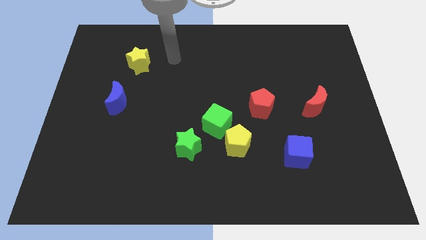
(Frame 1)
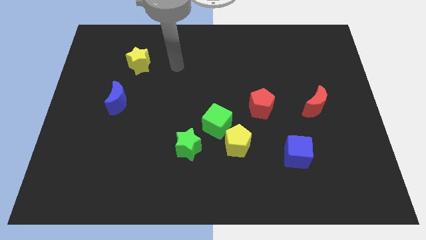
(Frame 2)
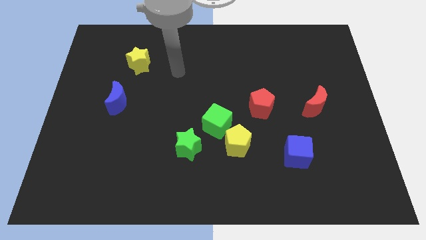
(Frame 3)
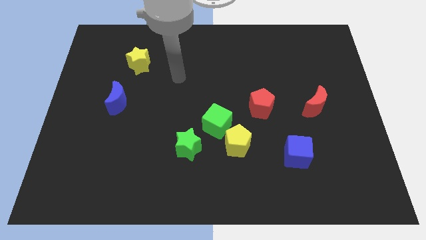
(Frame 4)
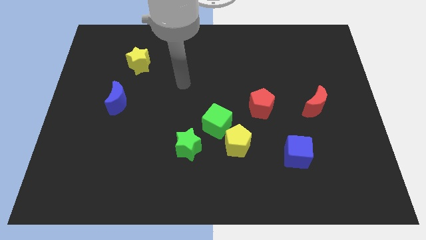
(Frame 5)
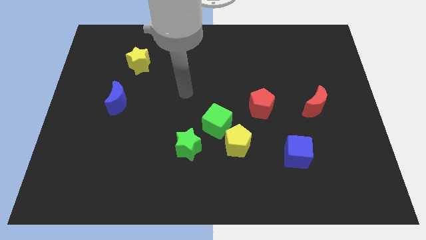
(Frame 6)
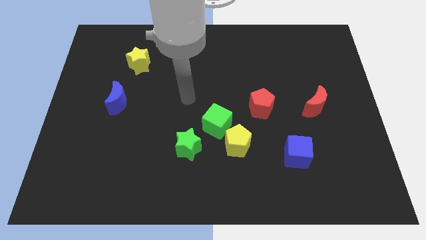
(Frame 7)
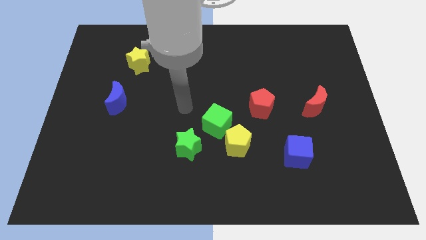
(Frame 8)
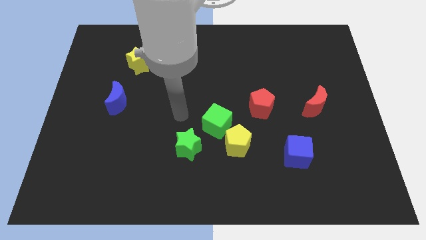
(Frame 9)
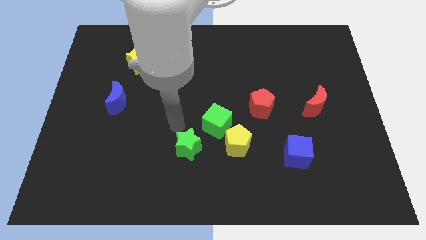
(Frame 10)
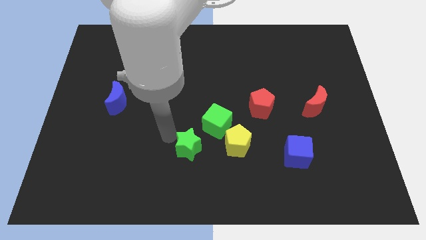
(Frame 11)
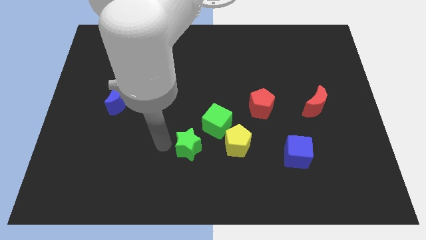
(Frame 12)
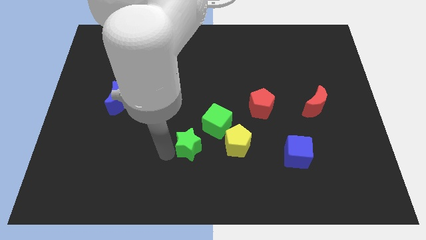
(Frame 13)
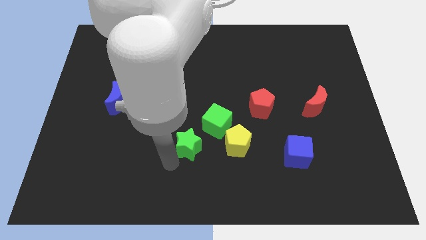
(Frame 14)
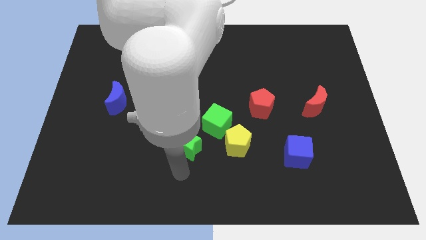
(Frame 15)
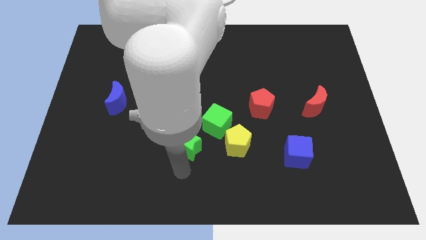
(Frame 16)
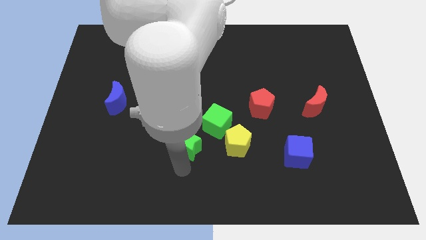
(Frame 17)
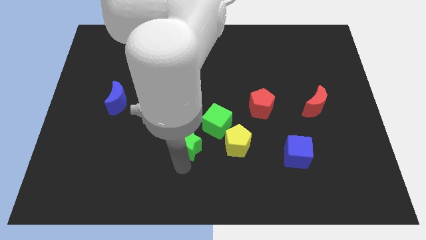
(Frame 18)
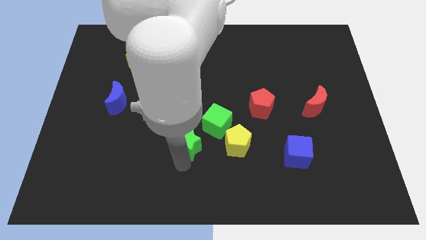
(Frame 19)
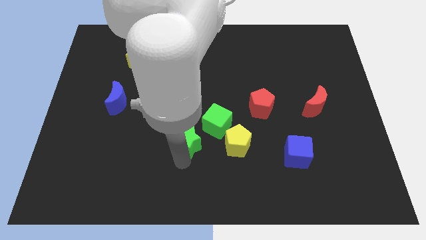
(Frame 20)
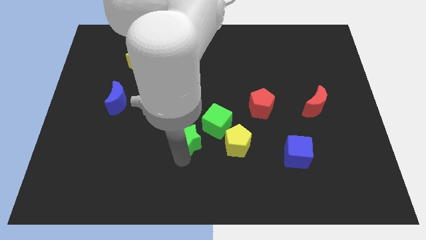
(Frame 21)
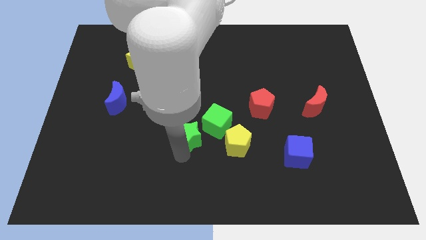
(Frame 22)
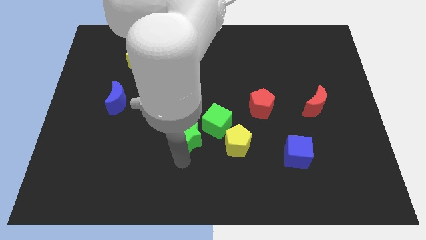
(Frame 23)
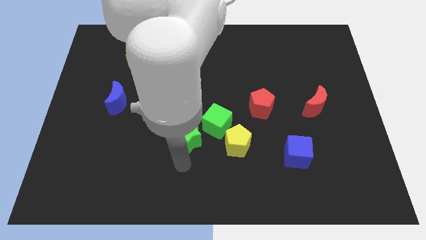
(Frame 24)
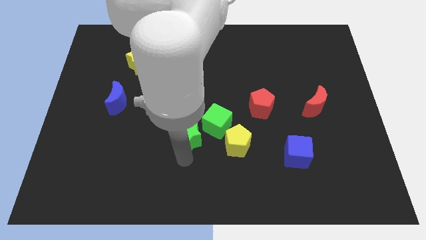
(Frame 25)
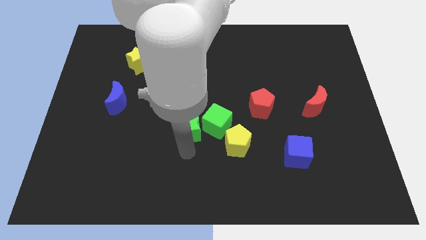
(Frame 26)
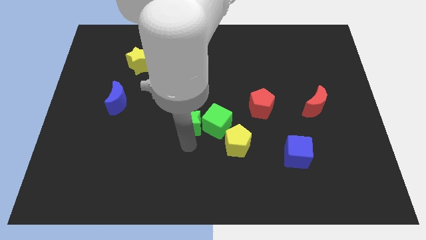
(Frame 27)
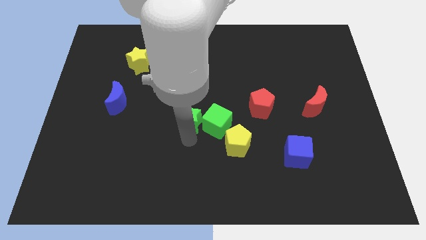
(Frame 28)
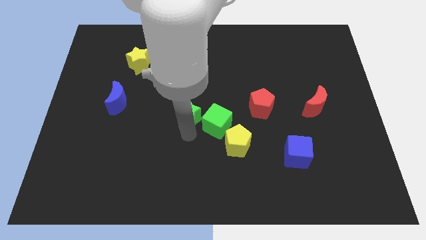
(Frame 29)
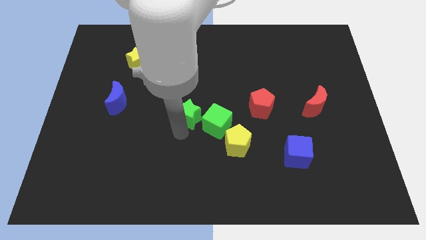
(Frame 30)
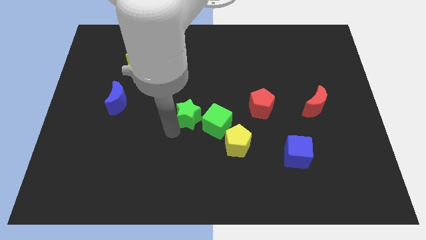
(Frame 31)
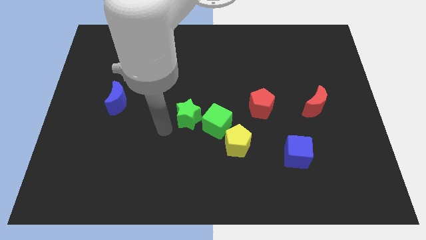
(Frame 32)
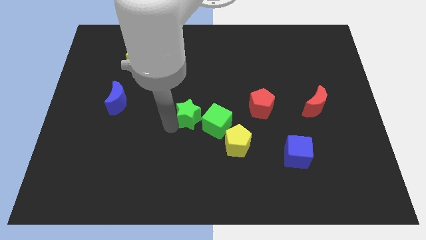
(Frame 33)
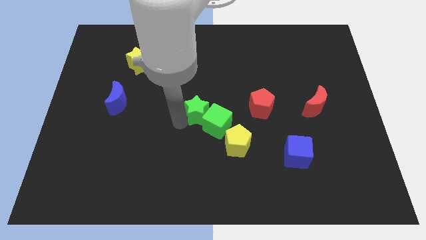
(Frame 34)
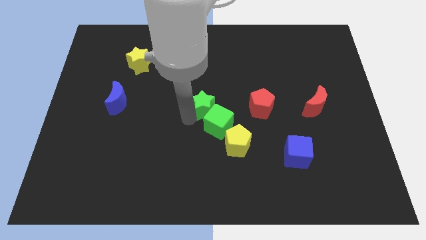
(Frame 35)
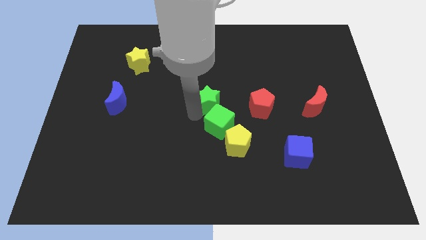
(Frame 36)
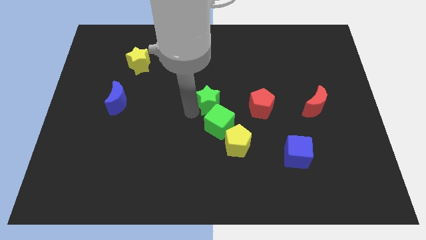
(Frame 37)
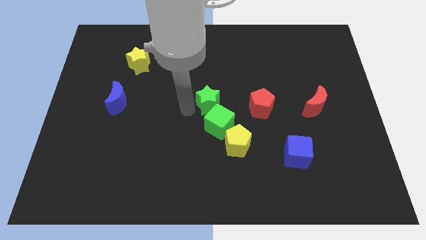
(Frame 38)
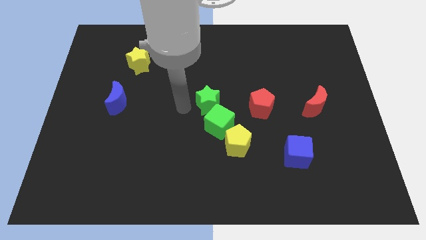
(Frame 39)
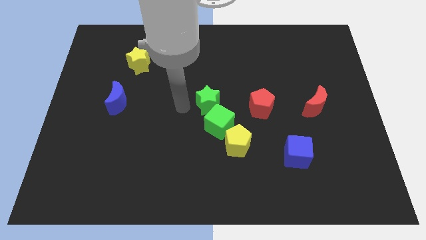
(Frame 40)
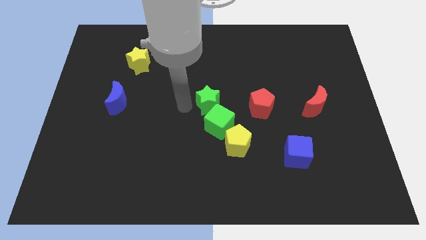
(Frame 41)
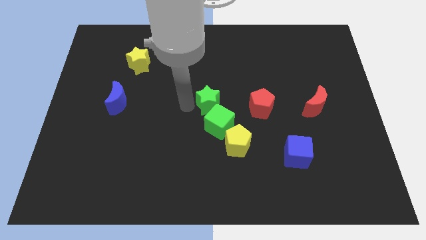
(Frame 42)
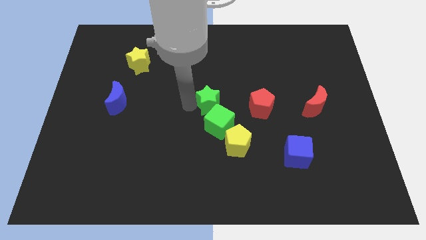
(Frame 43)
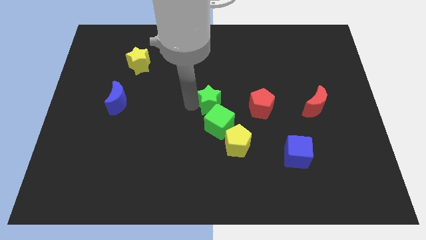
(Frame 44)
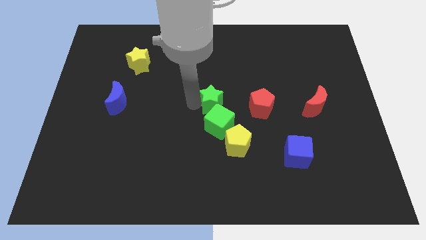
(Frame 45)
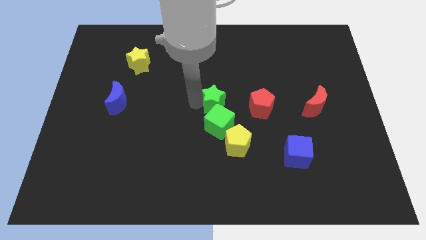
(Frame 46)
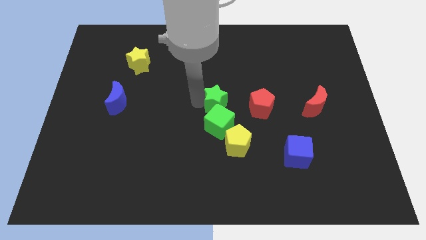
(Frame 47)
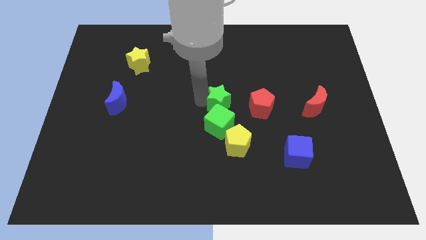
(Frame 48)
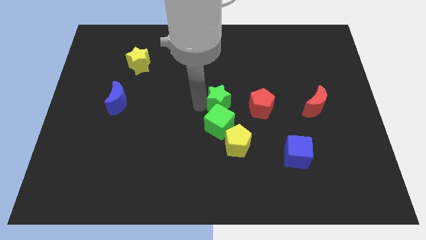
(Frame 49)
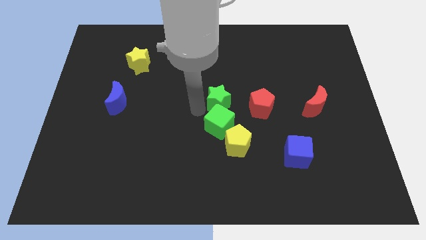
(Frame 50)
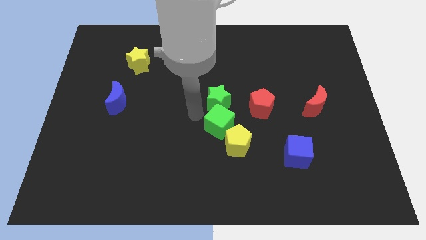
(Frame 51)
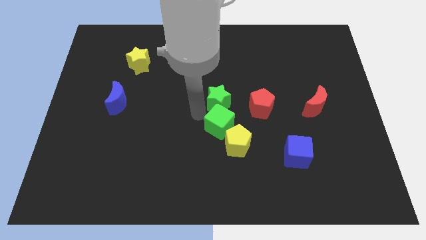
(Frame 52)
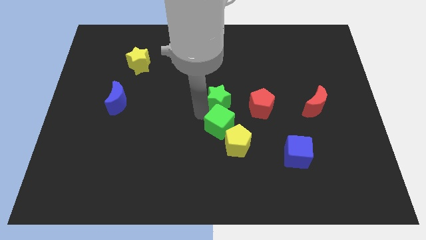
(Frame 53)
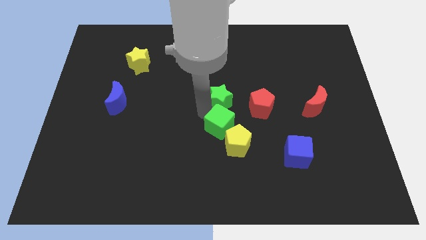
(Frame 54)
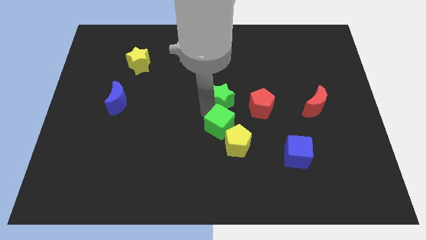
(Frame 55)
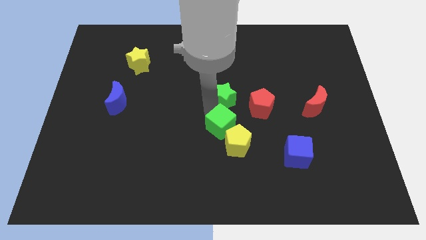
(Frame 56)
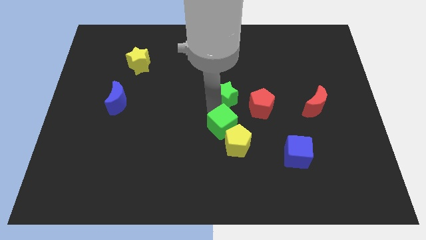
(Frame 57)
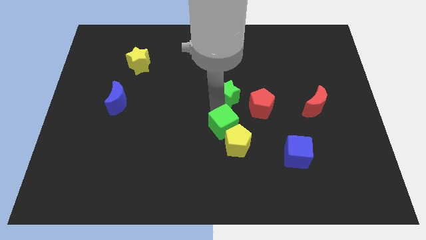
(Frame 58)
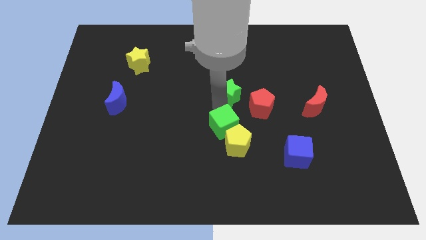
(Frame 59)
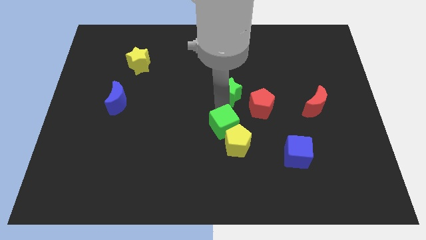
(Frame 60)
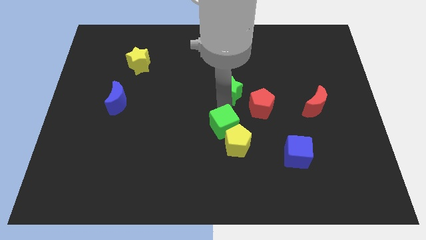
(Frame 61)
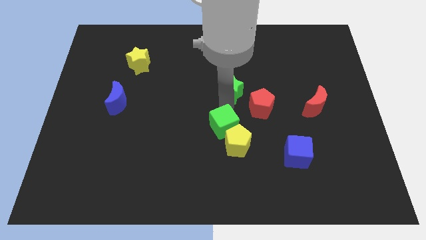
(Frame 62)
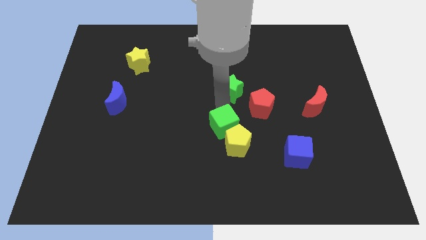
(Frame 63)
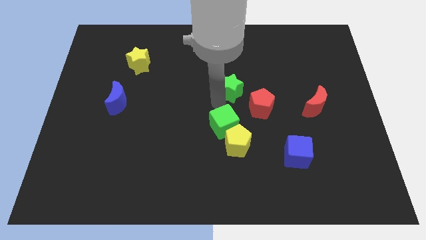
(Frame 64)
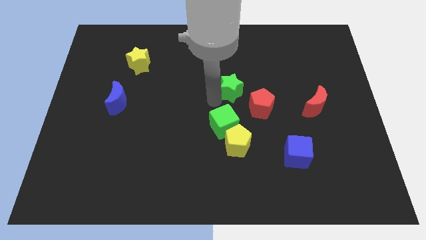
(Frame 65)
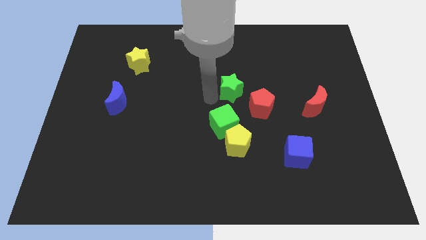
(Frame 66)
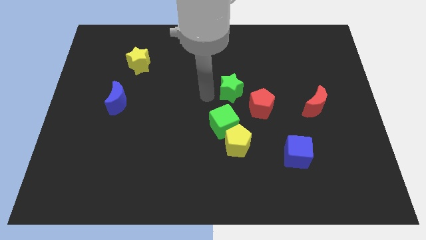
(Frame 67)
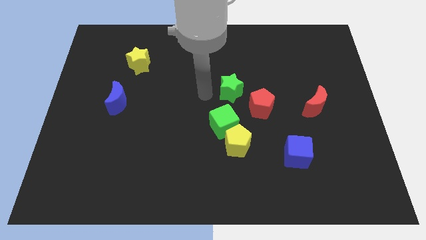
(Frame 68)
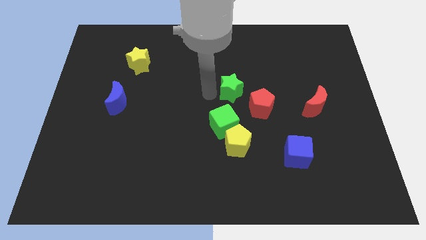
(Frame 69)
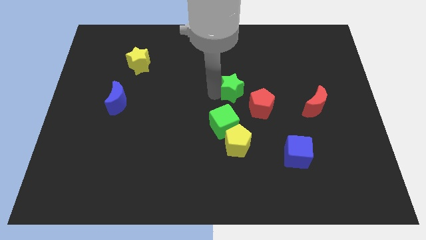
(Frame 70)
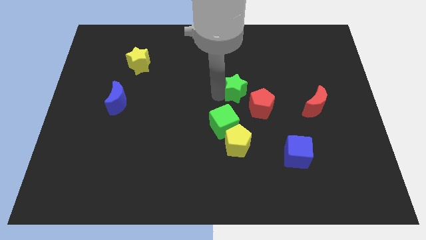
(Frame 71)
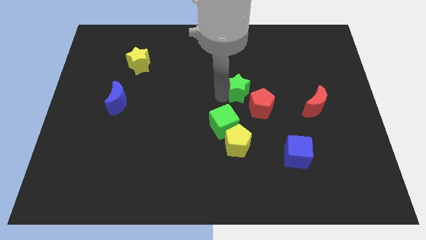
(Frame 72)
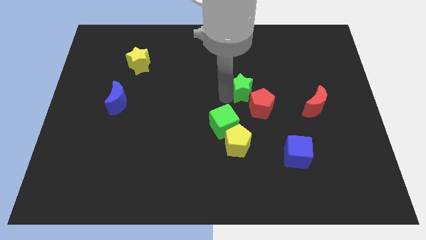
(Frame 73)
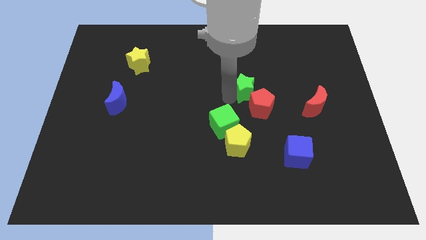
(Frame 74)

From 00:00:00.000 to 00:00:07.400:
move the green star up and then right

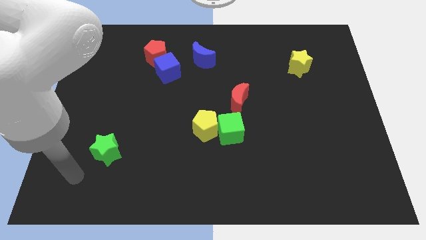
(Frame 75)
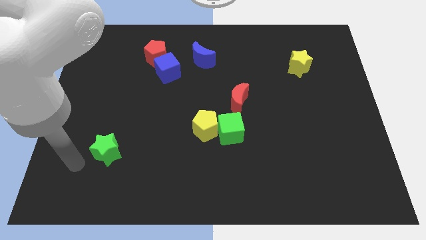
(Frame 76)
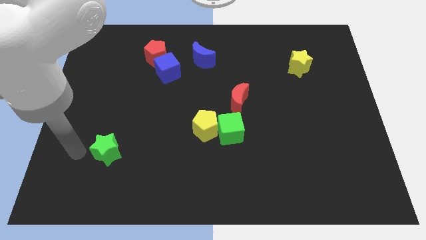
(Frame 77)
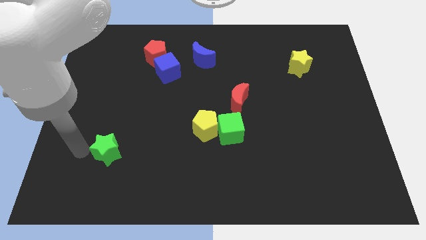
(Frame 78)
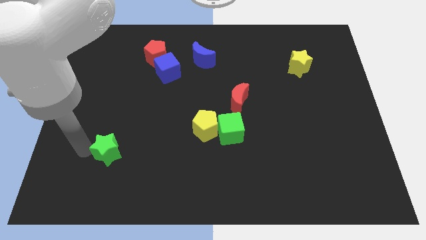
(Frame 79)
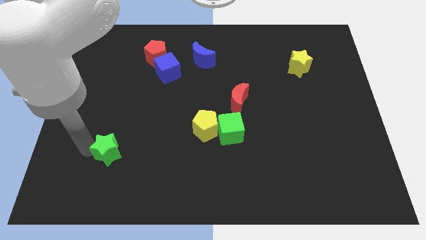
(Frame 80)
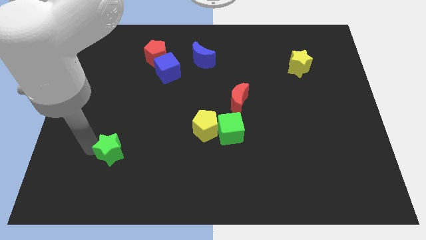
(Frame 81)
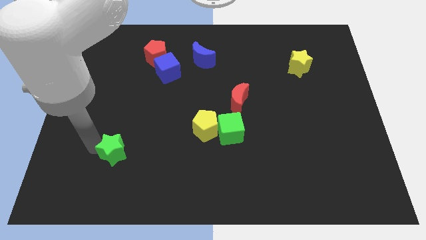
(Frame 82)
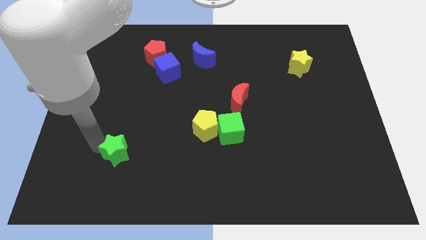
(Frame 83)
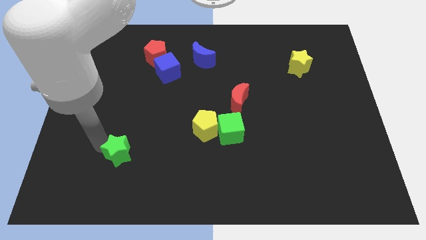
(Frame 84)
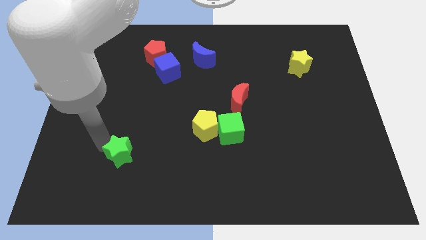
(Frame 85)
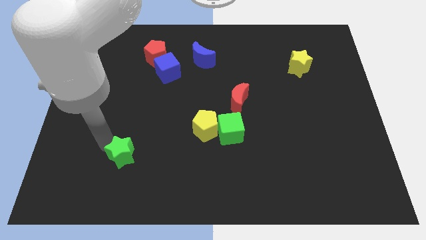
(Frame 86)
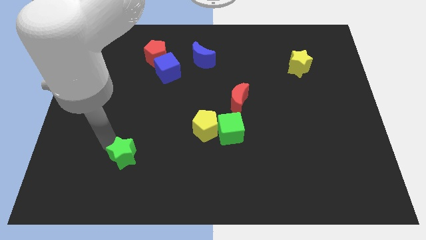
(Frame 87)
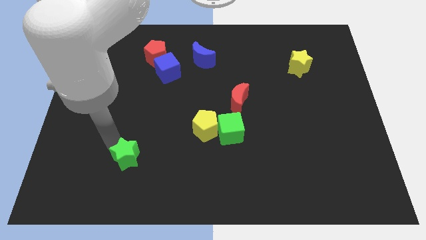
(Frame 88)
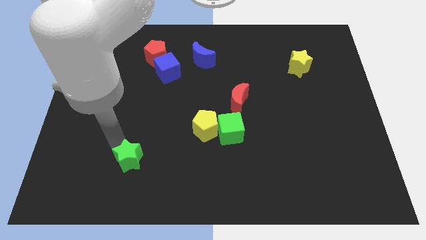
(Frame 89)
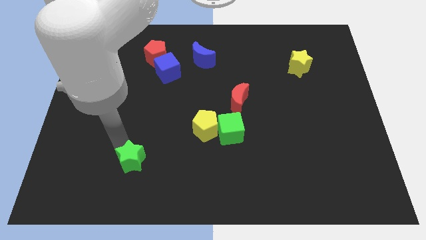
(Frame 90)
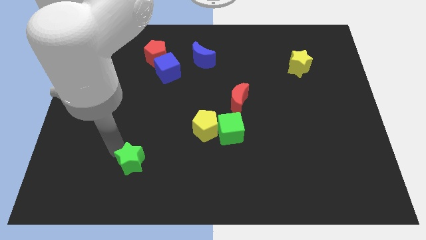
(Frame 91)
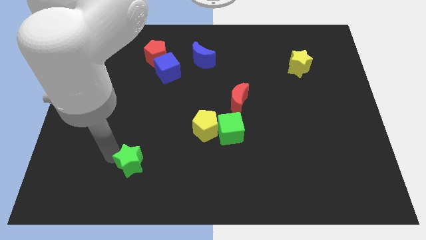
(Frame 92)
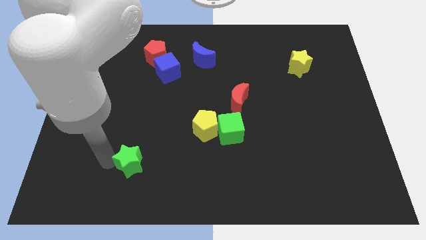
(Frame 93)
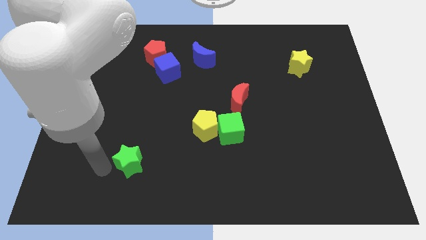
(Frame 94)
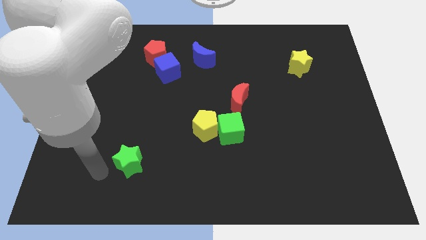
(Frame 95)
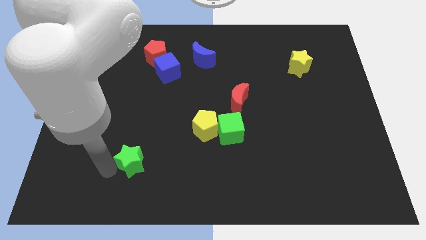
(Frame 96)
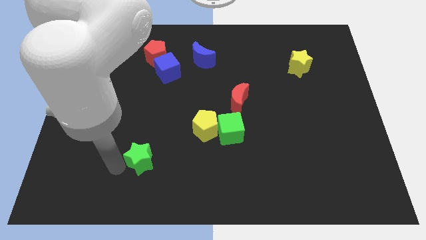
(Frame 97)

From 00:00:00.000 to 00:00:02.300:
slide the green star somewhat right
